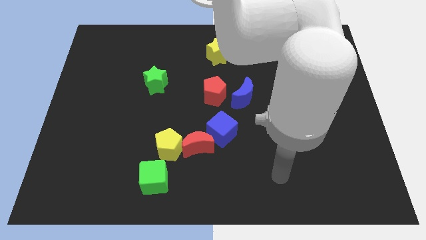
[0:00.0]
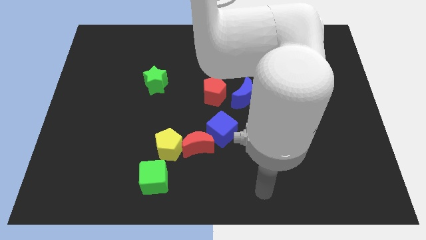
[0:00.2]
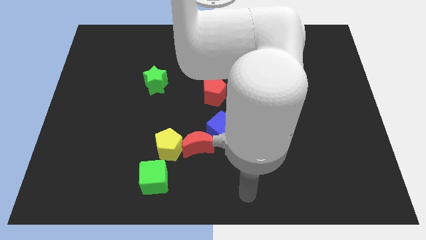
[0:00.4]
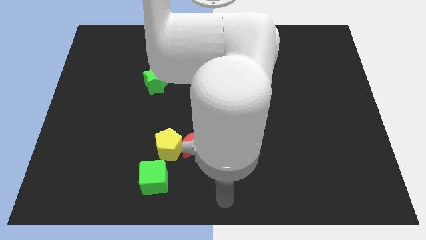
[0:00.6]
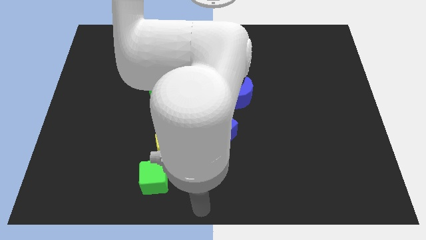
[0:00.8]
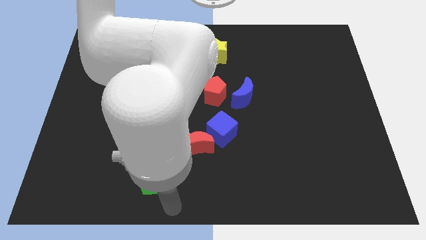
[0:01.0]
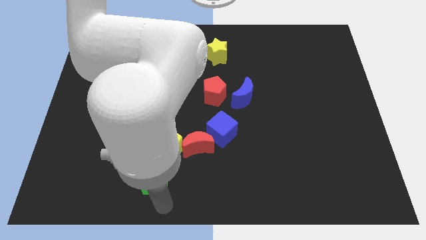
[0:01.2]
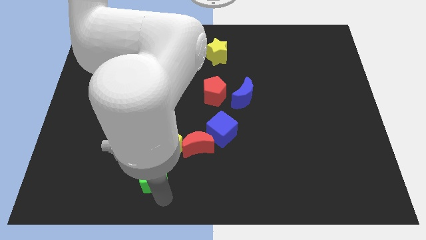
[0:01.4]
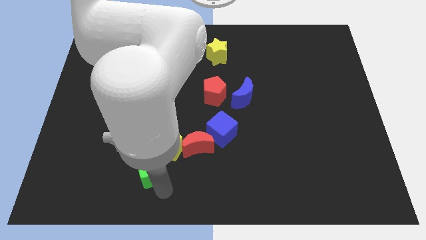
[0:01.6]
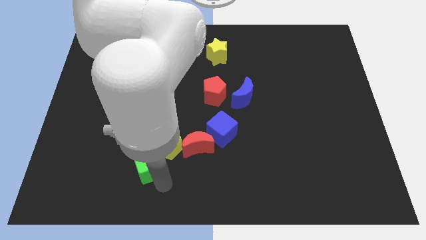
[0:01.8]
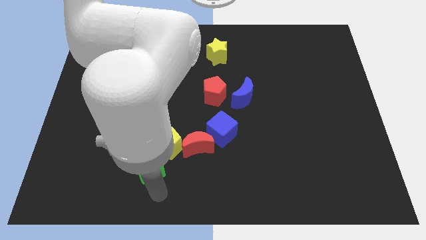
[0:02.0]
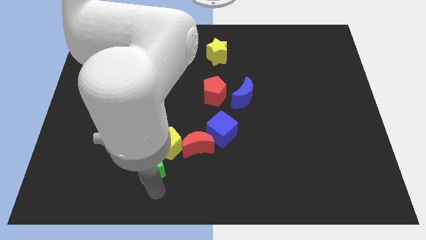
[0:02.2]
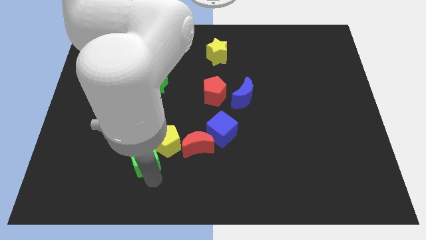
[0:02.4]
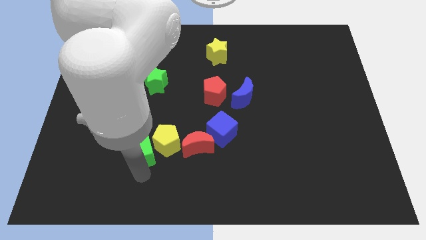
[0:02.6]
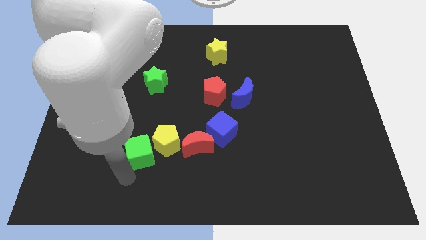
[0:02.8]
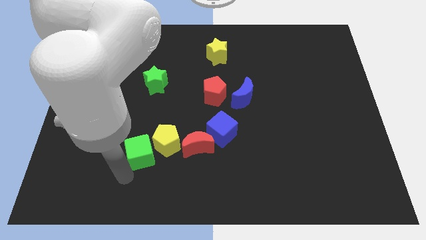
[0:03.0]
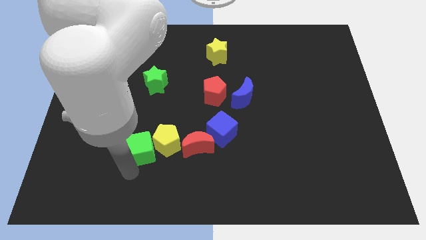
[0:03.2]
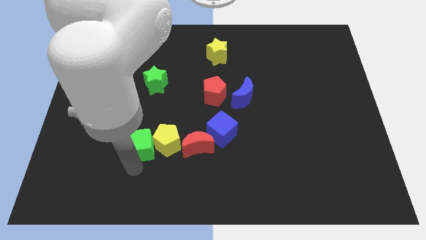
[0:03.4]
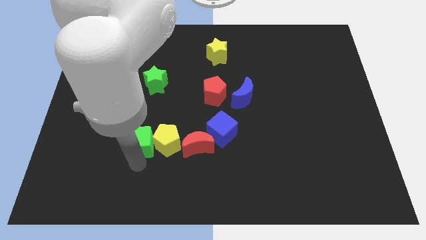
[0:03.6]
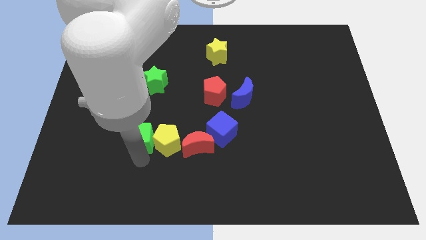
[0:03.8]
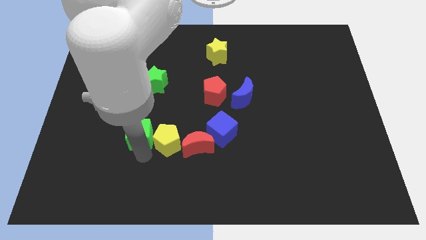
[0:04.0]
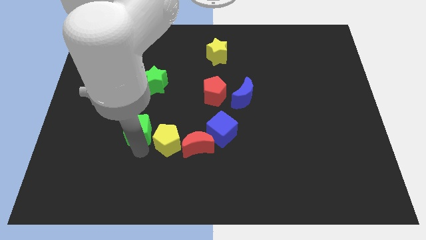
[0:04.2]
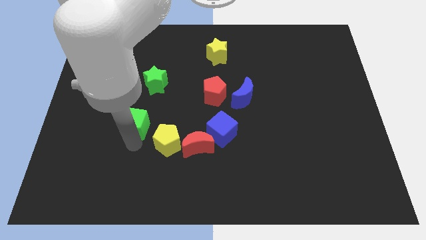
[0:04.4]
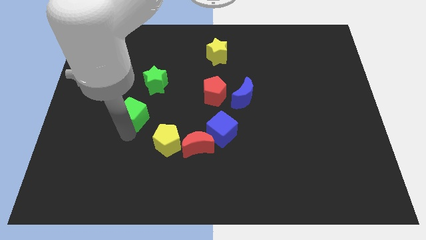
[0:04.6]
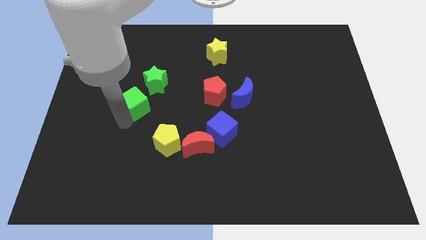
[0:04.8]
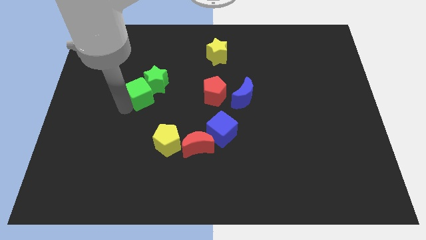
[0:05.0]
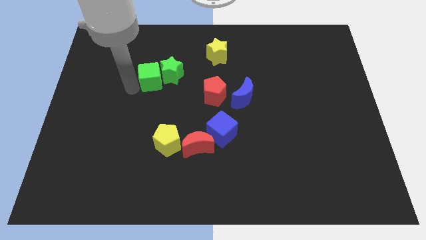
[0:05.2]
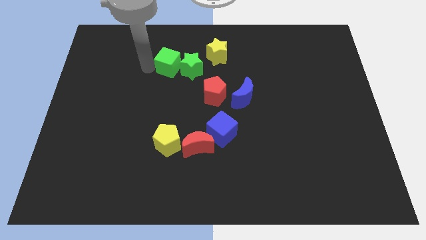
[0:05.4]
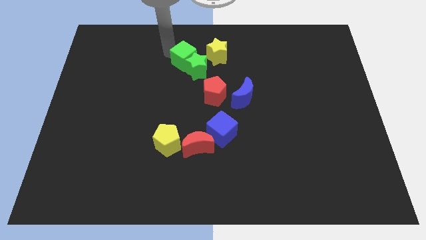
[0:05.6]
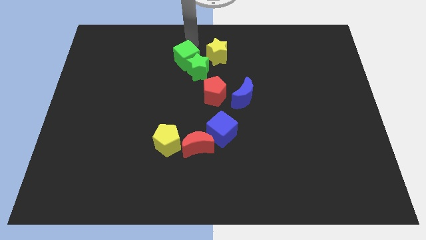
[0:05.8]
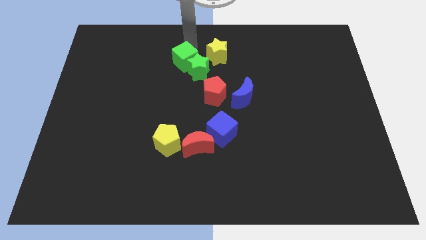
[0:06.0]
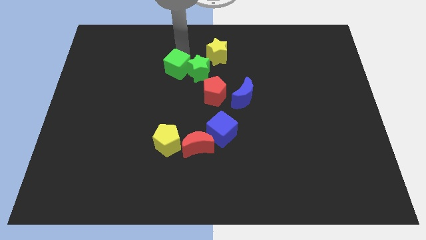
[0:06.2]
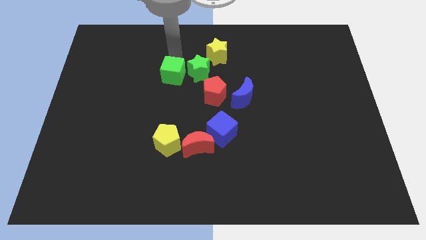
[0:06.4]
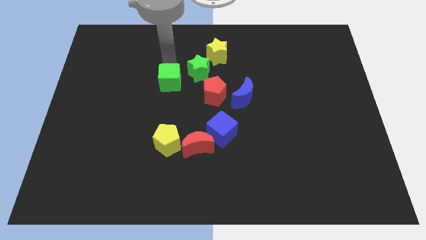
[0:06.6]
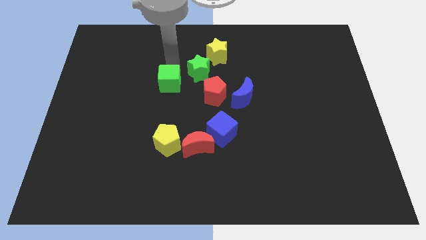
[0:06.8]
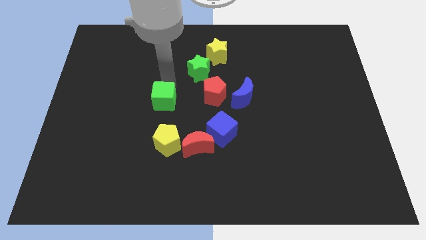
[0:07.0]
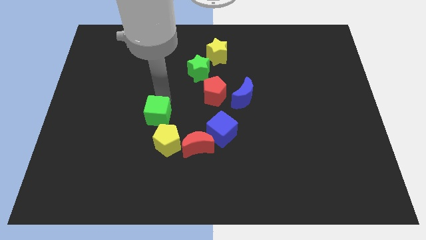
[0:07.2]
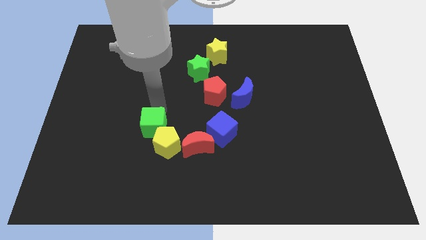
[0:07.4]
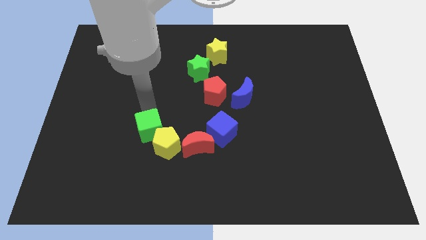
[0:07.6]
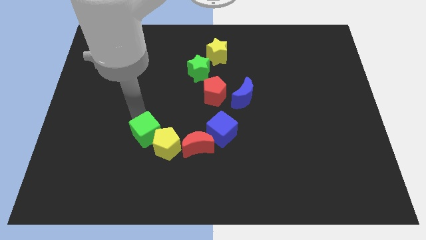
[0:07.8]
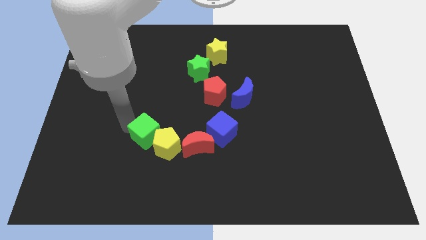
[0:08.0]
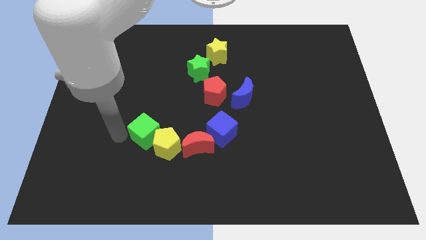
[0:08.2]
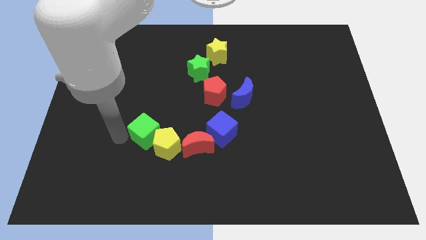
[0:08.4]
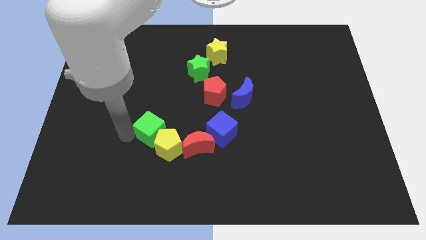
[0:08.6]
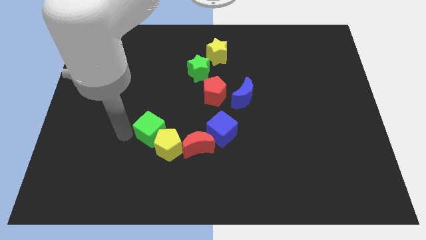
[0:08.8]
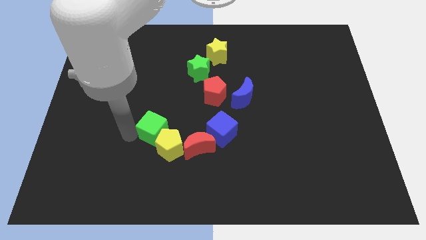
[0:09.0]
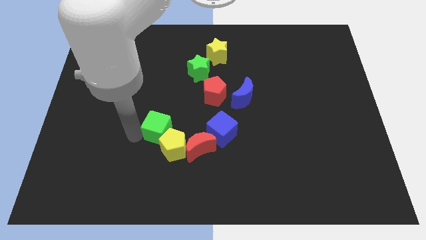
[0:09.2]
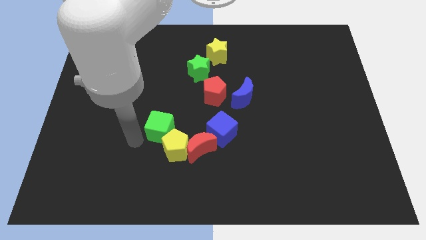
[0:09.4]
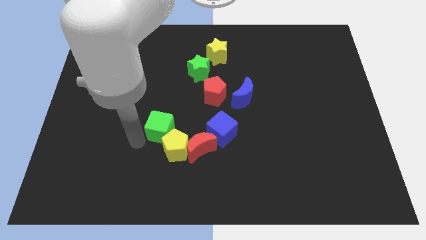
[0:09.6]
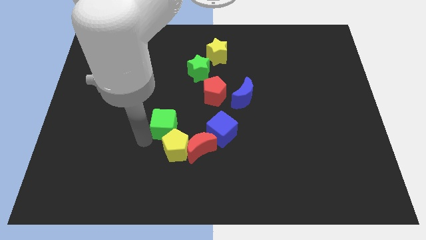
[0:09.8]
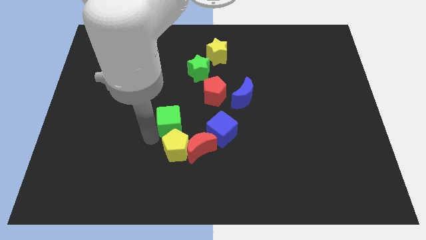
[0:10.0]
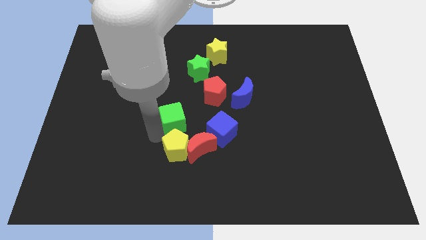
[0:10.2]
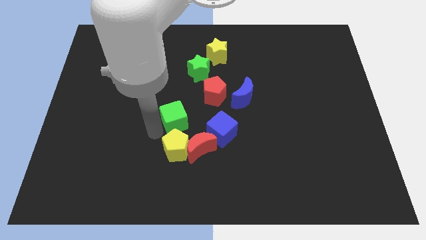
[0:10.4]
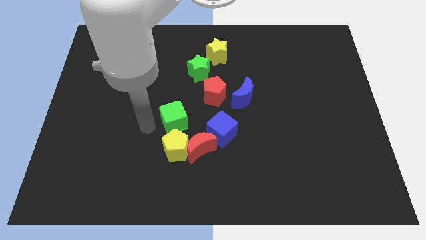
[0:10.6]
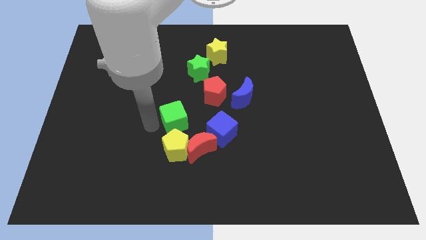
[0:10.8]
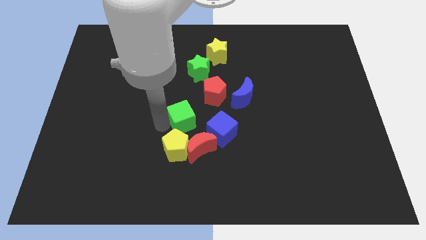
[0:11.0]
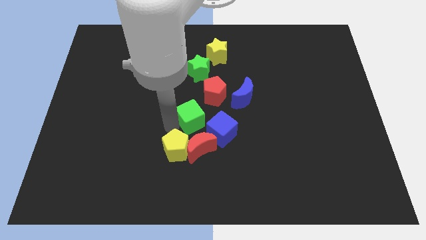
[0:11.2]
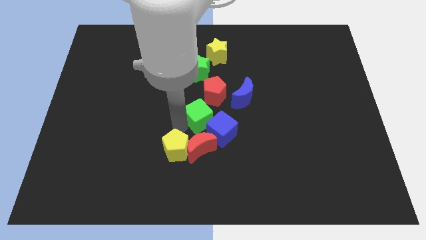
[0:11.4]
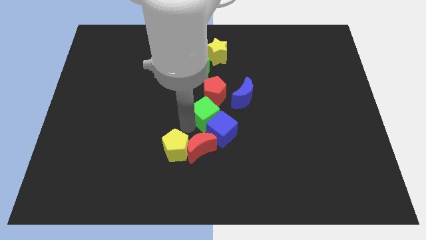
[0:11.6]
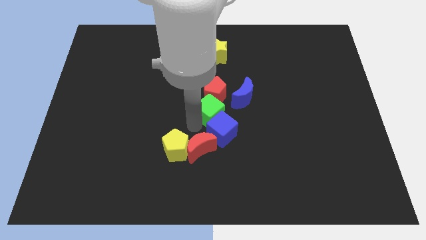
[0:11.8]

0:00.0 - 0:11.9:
put the green cube to the red pentagon

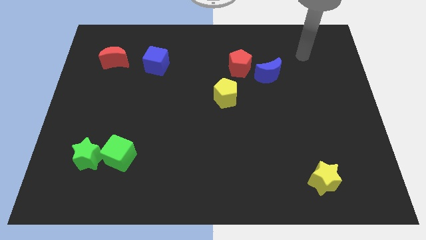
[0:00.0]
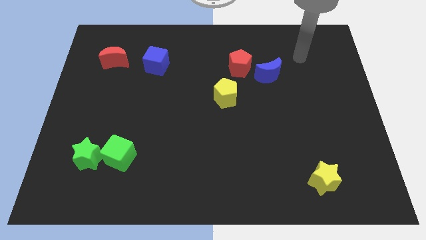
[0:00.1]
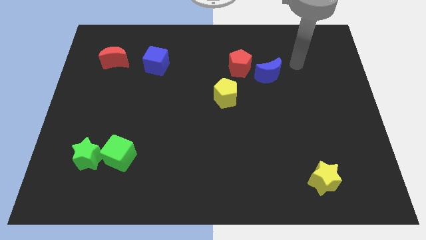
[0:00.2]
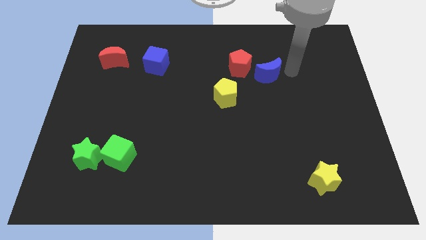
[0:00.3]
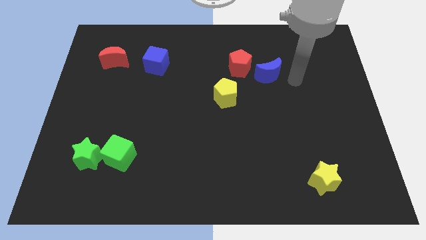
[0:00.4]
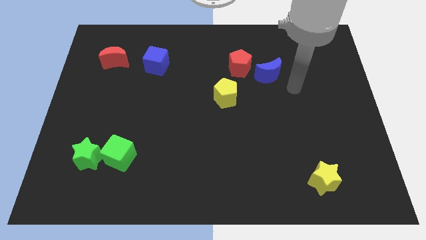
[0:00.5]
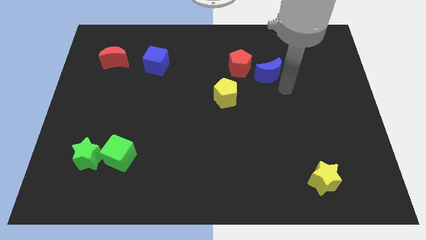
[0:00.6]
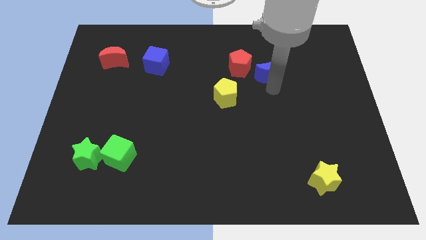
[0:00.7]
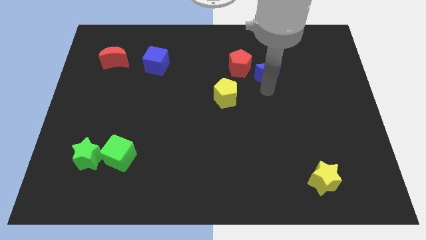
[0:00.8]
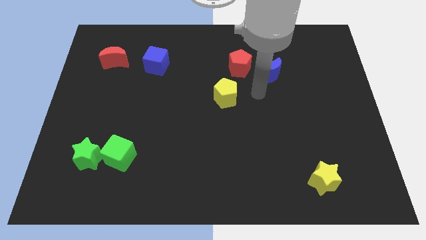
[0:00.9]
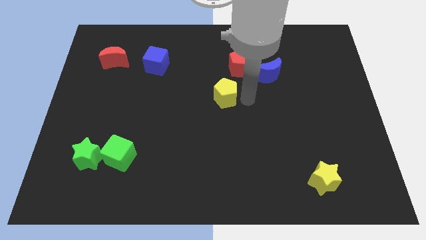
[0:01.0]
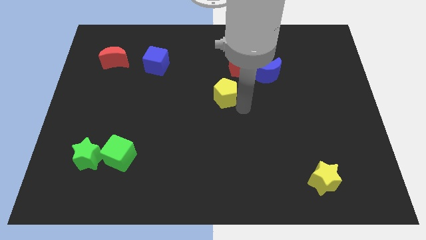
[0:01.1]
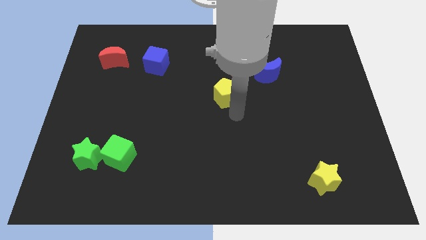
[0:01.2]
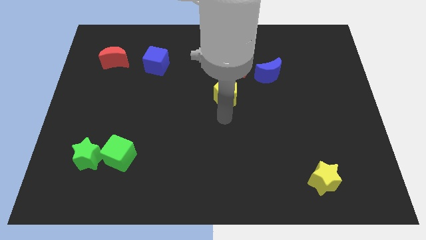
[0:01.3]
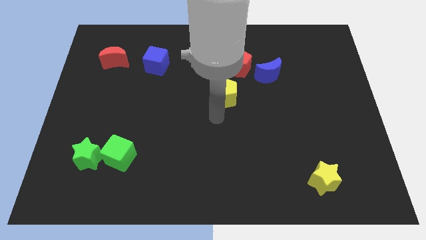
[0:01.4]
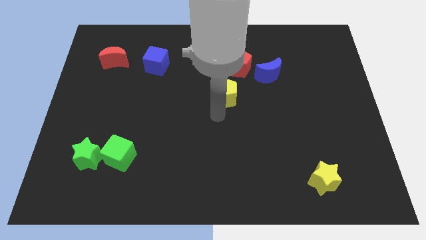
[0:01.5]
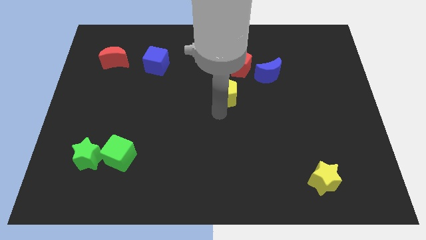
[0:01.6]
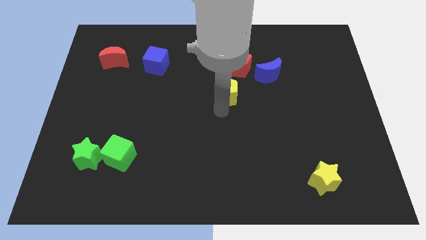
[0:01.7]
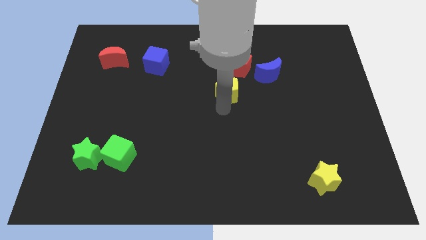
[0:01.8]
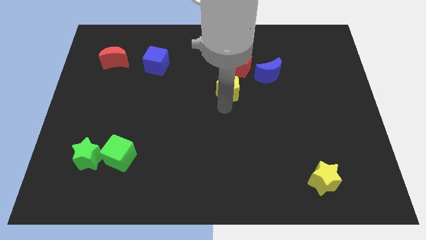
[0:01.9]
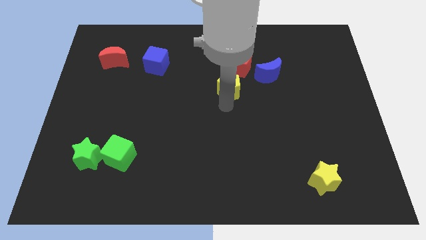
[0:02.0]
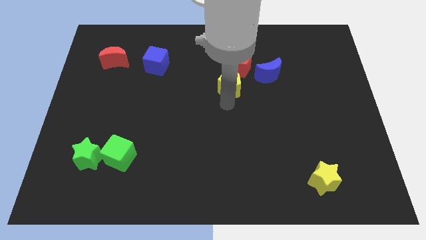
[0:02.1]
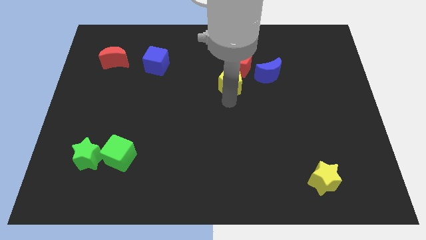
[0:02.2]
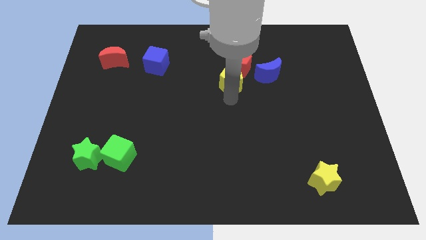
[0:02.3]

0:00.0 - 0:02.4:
slide the yellow pentagon next to the red pentagon
